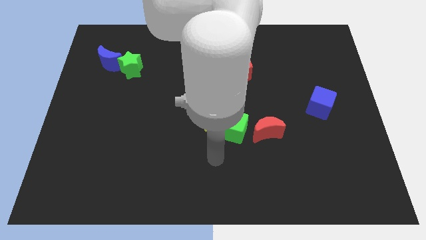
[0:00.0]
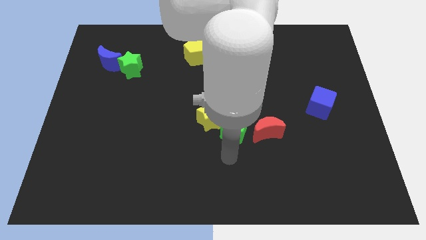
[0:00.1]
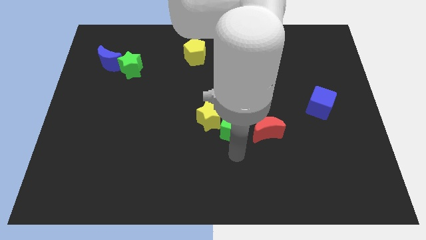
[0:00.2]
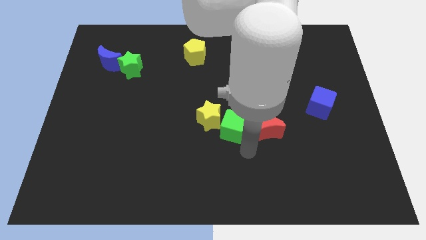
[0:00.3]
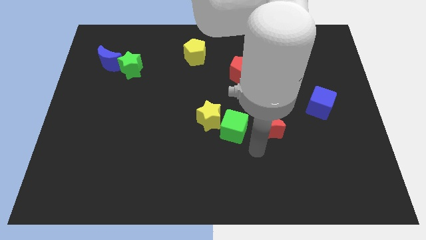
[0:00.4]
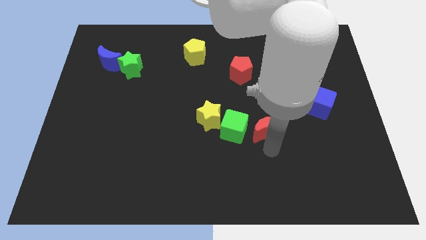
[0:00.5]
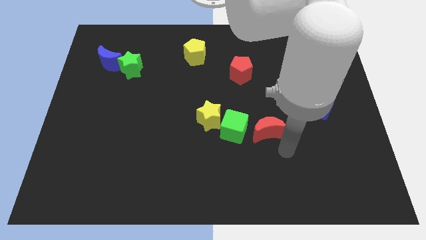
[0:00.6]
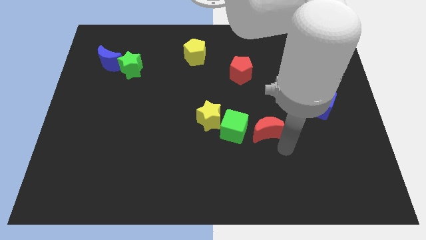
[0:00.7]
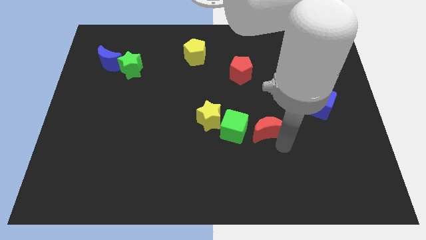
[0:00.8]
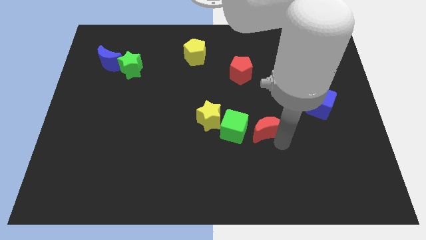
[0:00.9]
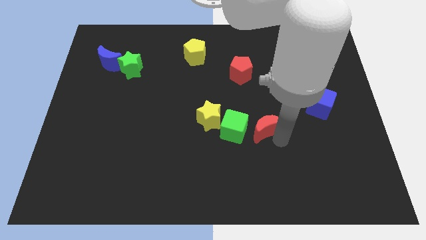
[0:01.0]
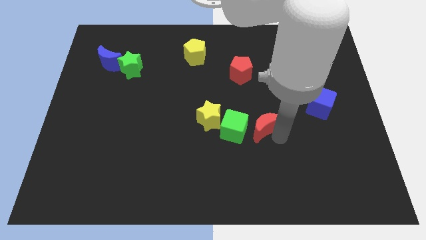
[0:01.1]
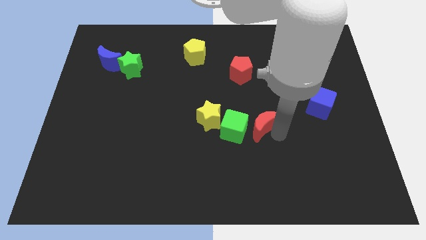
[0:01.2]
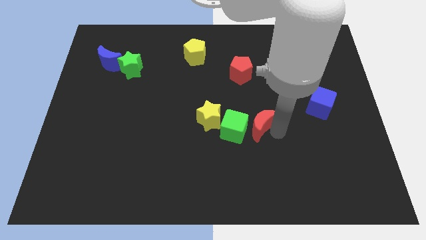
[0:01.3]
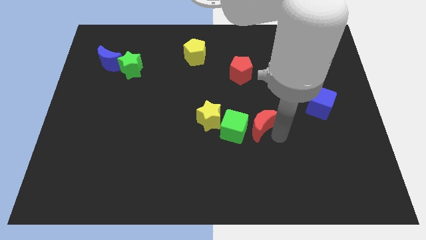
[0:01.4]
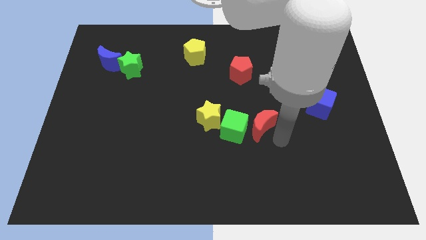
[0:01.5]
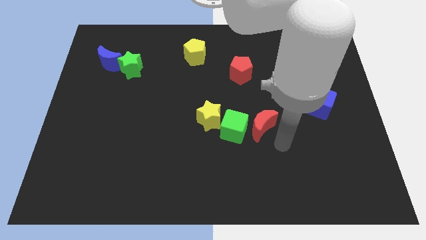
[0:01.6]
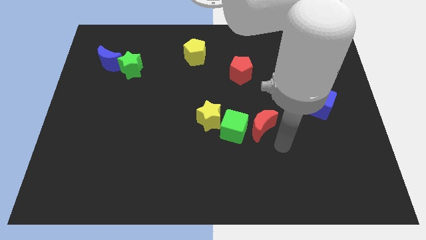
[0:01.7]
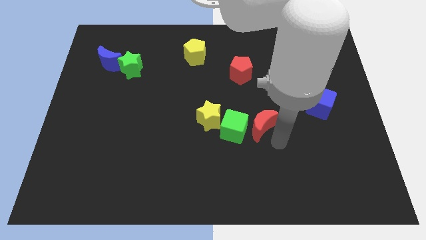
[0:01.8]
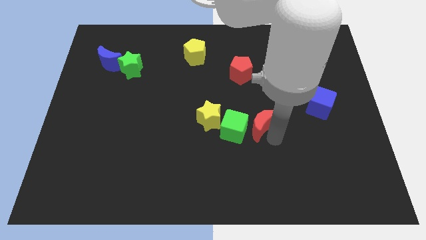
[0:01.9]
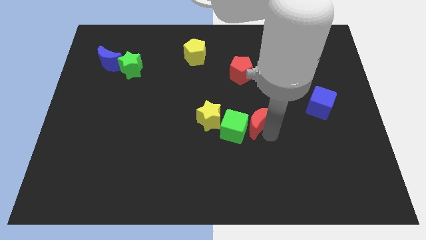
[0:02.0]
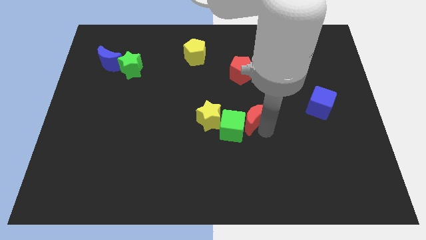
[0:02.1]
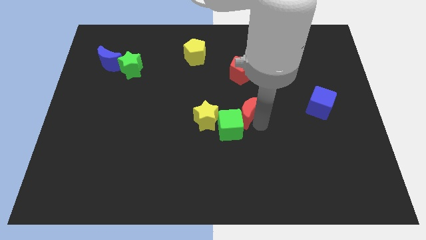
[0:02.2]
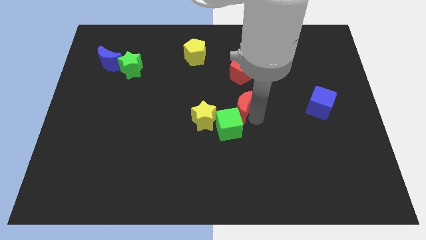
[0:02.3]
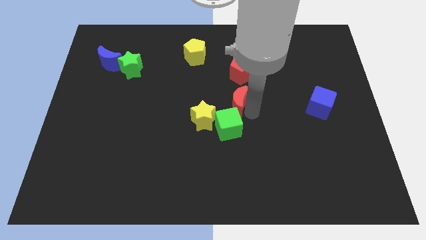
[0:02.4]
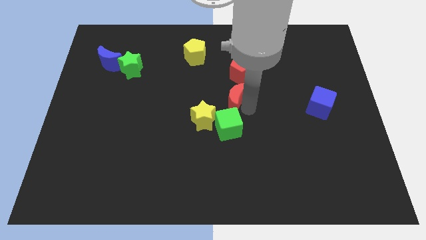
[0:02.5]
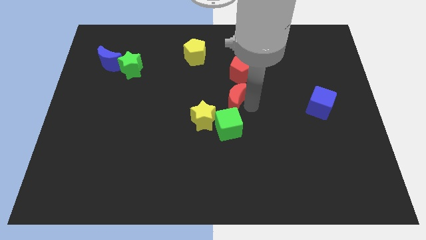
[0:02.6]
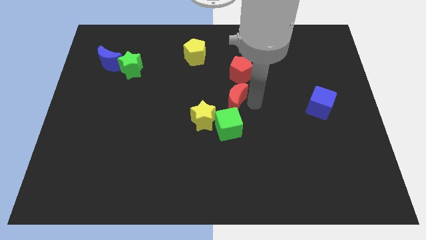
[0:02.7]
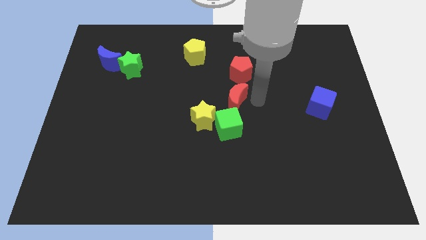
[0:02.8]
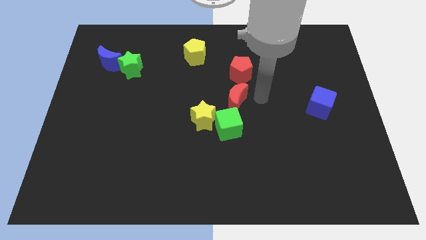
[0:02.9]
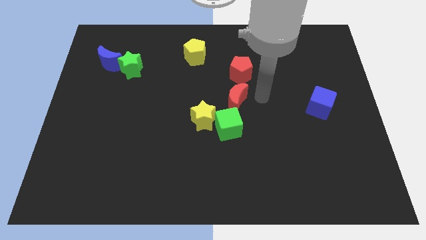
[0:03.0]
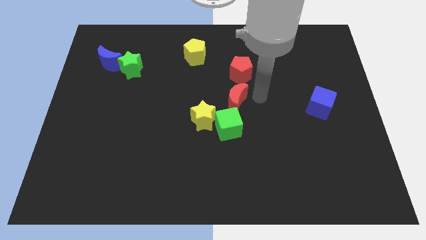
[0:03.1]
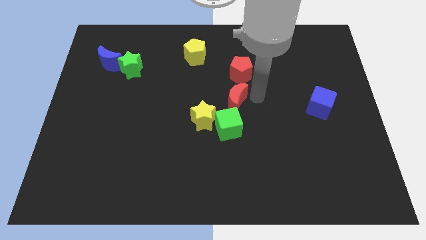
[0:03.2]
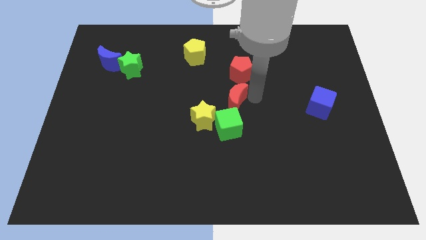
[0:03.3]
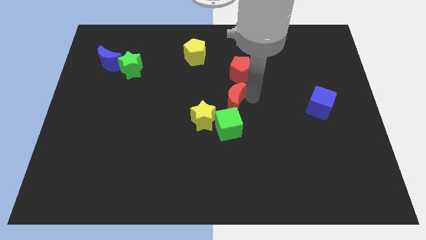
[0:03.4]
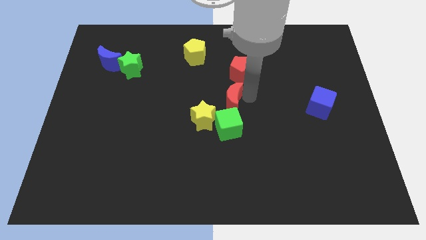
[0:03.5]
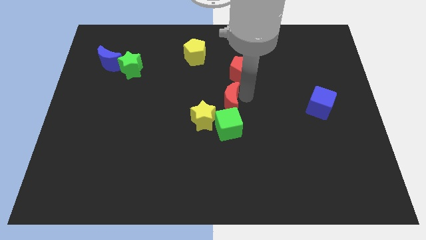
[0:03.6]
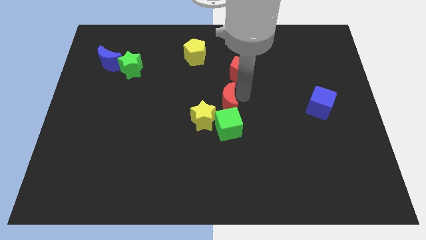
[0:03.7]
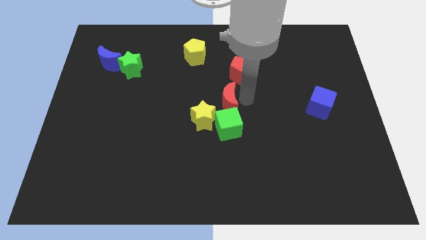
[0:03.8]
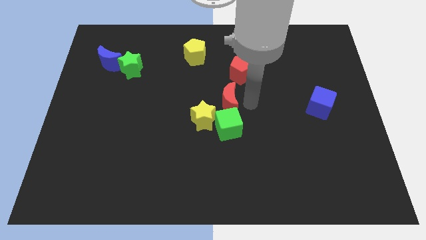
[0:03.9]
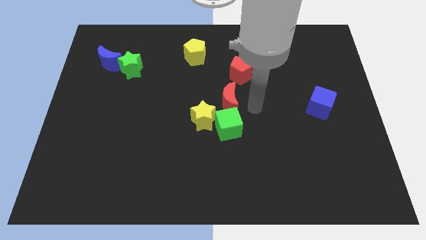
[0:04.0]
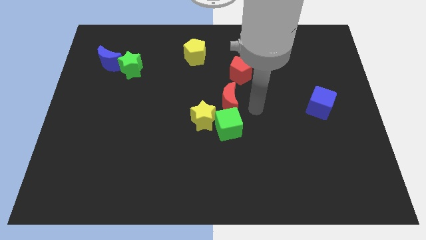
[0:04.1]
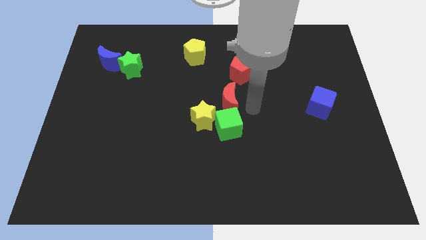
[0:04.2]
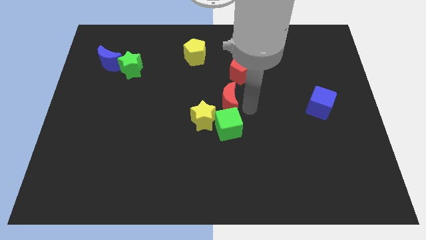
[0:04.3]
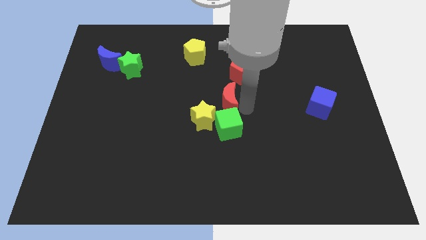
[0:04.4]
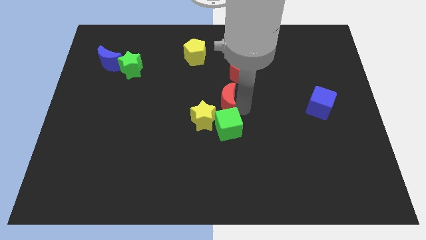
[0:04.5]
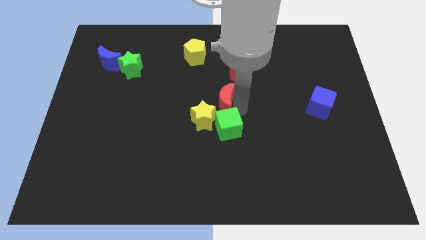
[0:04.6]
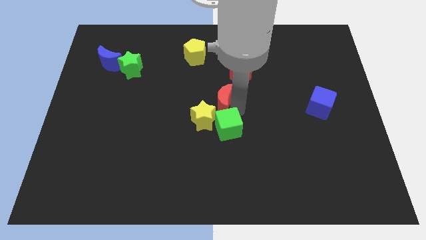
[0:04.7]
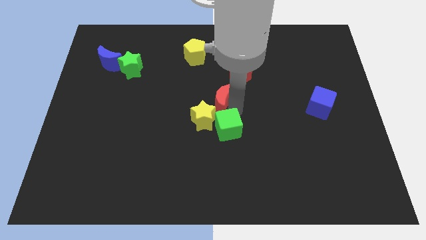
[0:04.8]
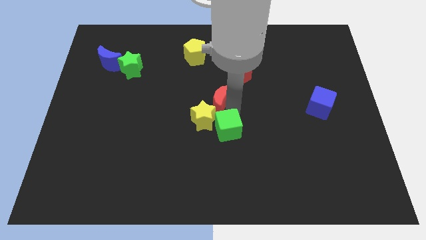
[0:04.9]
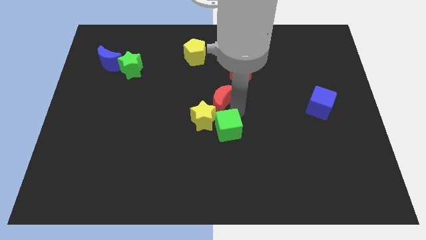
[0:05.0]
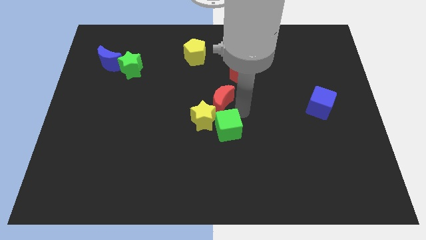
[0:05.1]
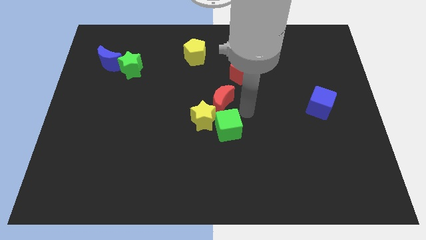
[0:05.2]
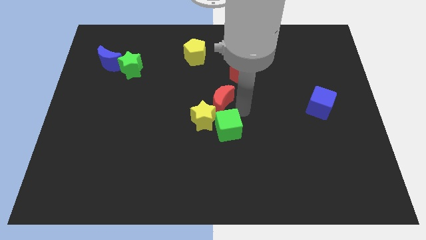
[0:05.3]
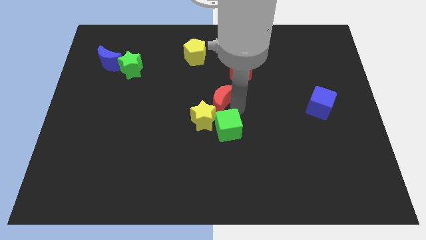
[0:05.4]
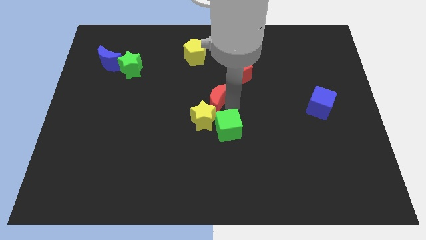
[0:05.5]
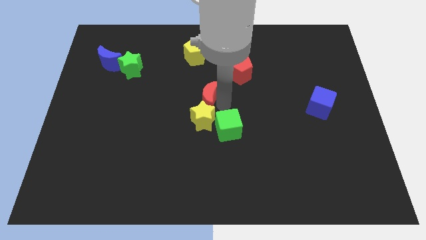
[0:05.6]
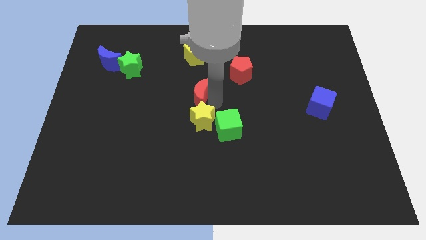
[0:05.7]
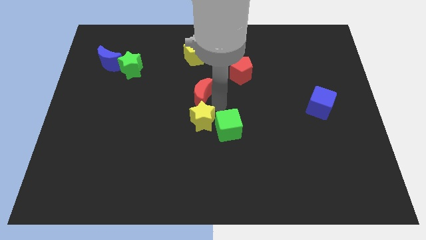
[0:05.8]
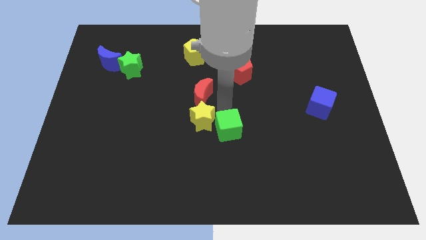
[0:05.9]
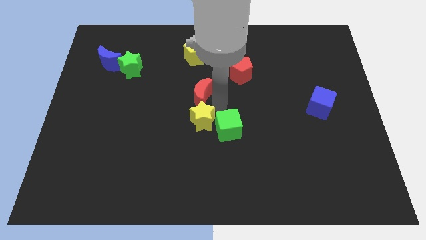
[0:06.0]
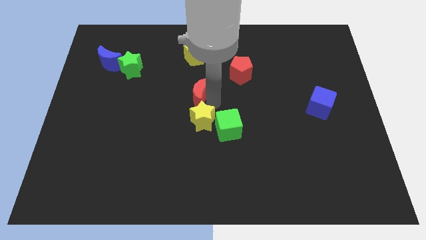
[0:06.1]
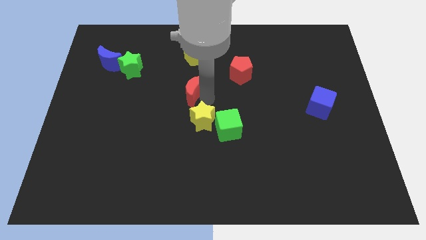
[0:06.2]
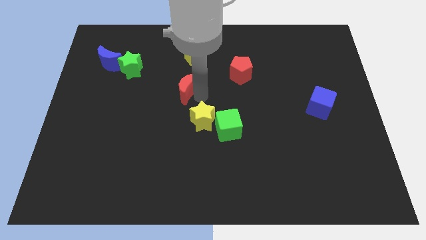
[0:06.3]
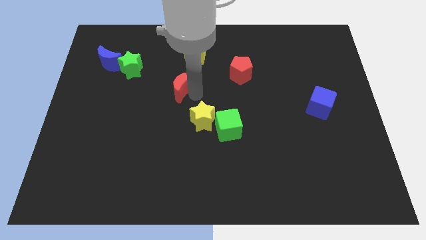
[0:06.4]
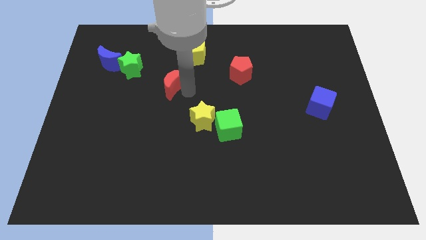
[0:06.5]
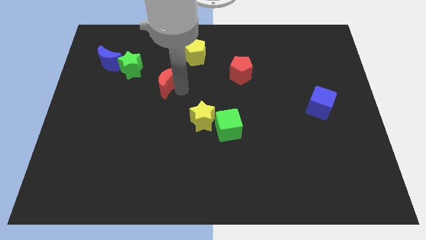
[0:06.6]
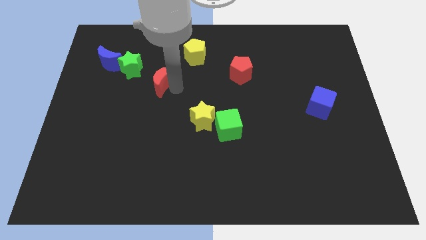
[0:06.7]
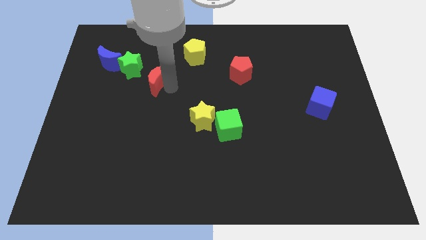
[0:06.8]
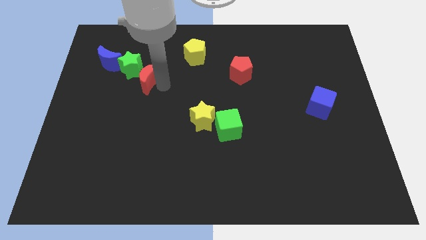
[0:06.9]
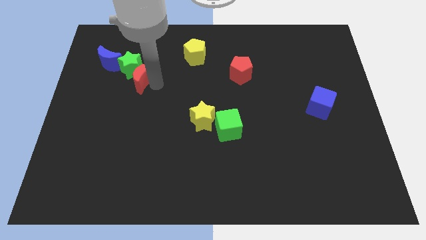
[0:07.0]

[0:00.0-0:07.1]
move the red moon towards the green star

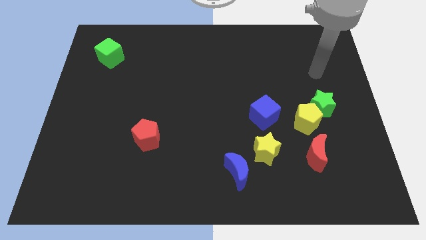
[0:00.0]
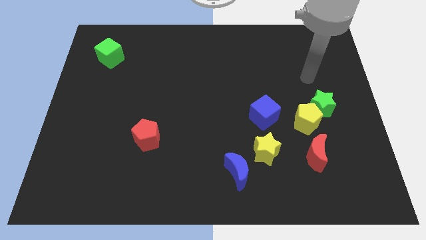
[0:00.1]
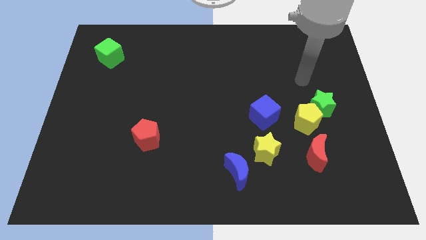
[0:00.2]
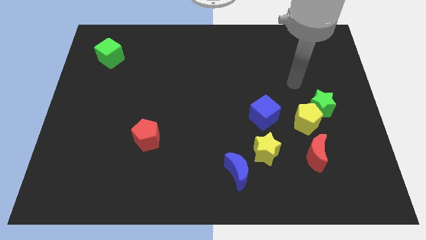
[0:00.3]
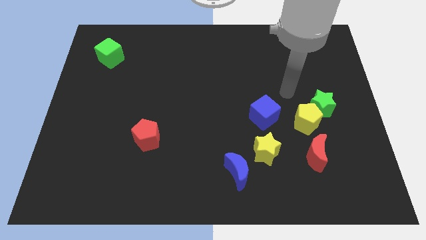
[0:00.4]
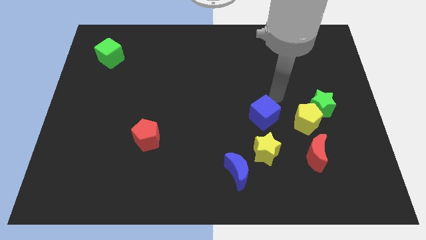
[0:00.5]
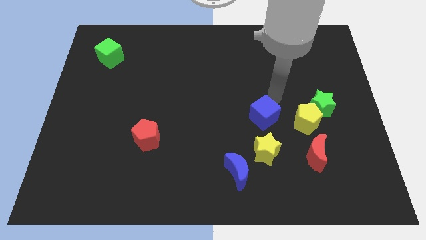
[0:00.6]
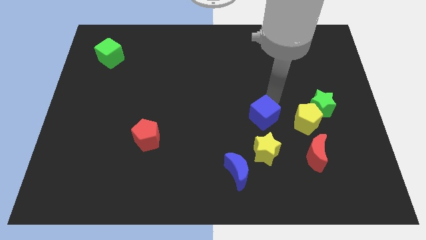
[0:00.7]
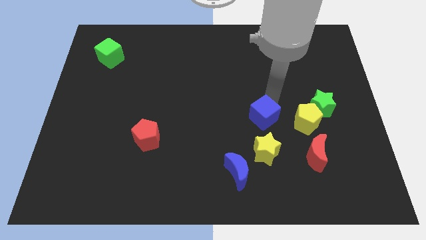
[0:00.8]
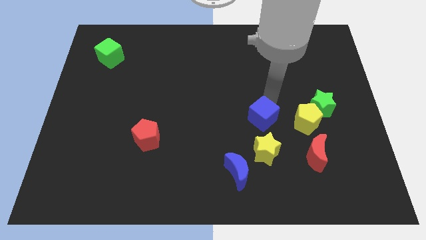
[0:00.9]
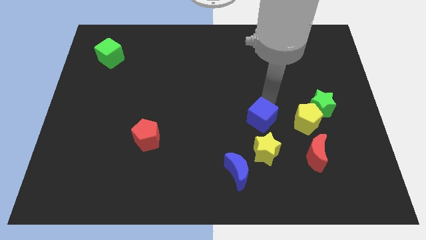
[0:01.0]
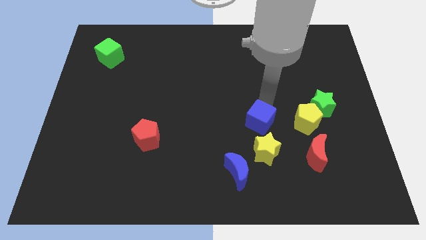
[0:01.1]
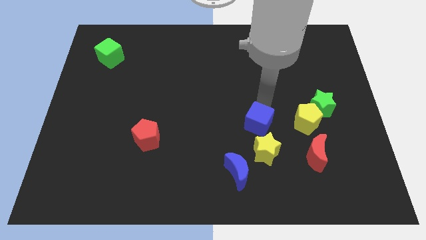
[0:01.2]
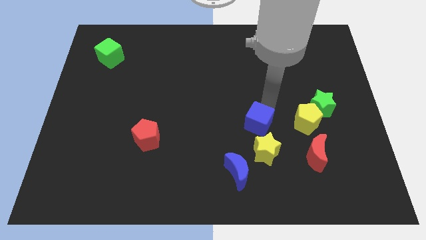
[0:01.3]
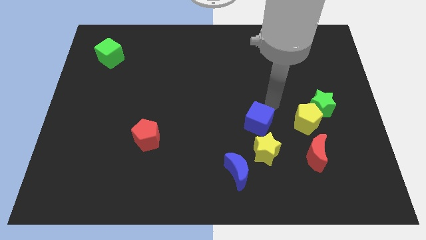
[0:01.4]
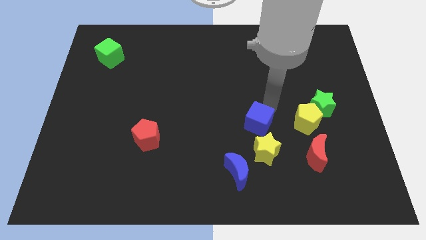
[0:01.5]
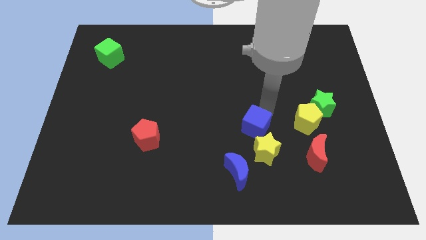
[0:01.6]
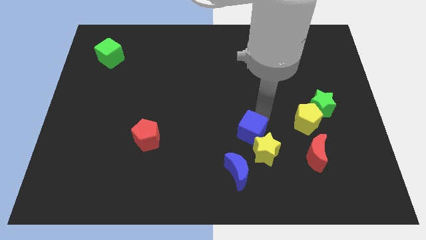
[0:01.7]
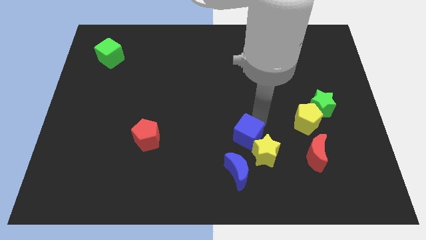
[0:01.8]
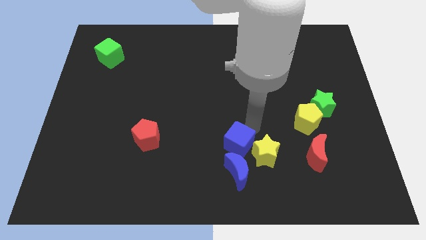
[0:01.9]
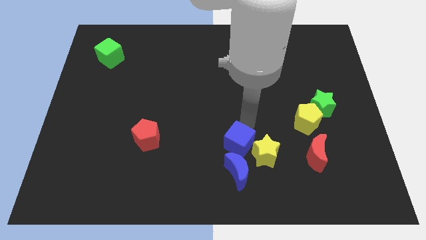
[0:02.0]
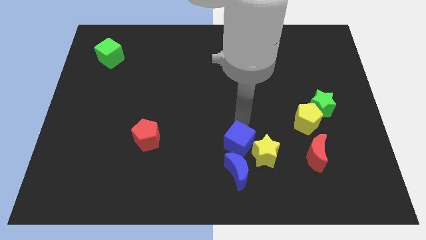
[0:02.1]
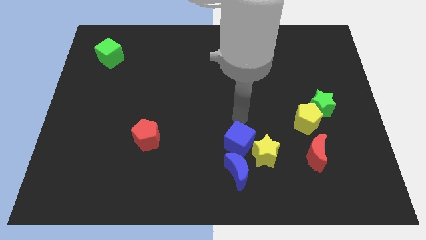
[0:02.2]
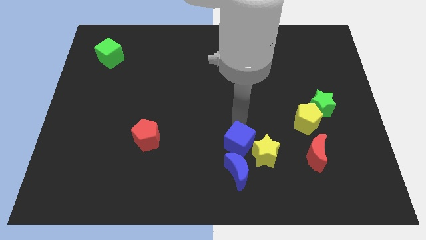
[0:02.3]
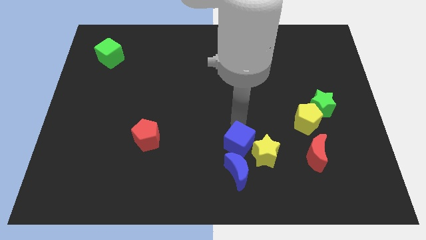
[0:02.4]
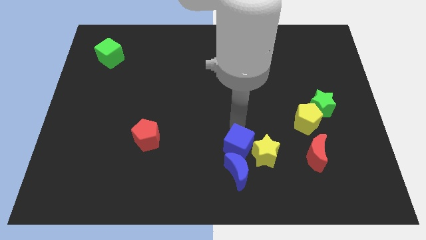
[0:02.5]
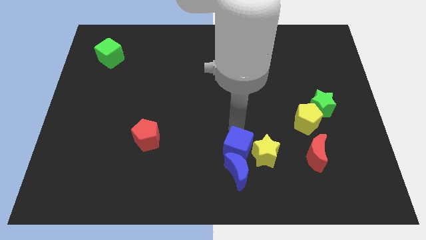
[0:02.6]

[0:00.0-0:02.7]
push the blue cube towards the blue moon
